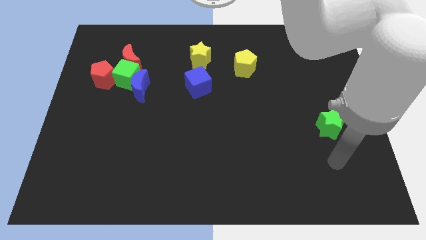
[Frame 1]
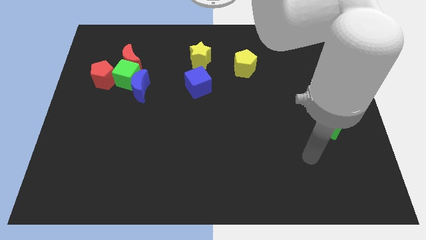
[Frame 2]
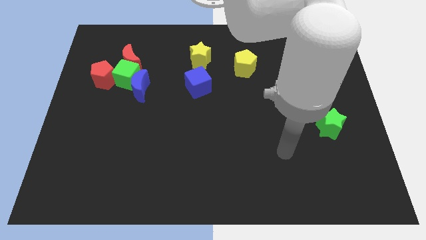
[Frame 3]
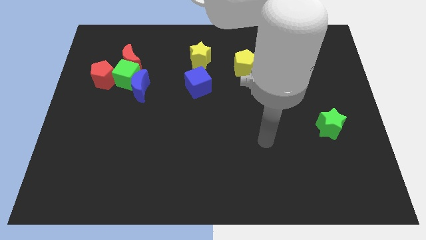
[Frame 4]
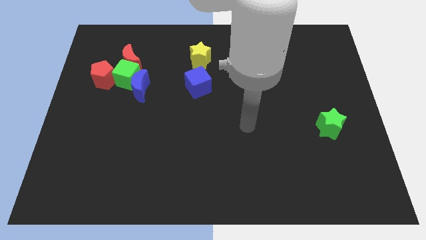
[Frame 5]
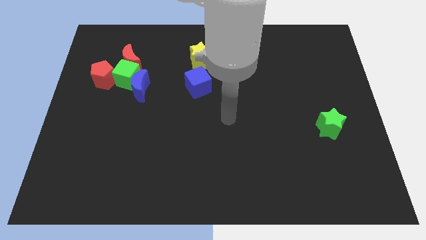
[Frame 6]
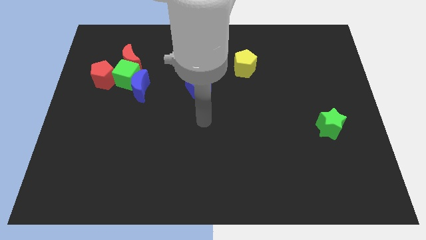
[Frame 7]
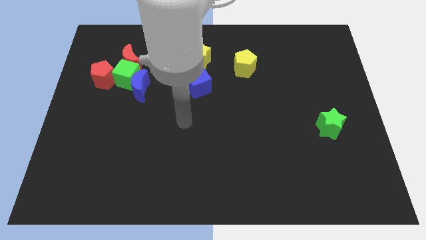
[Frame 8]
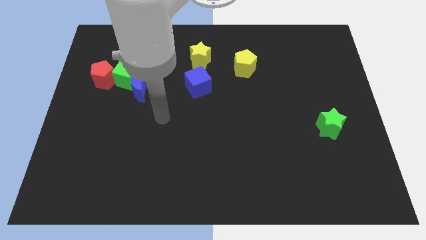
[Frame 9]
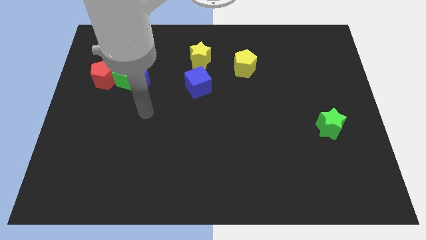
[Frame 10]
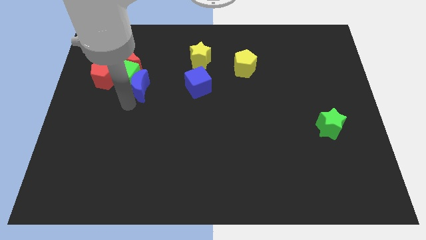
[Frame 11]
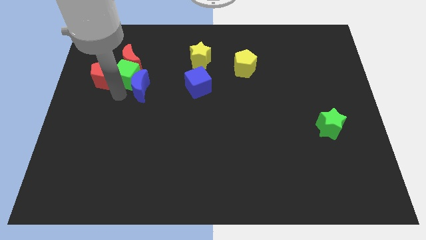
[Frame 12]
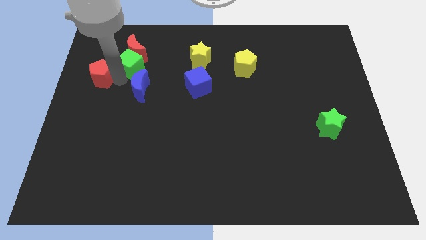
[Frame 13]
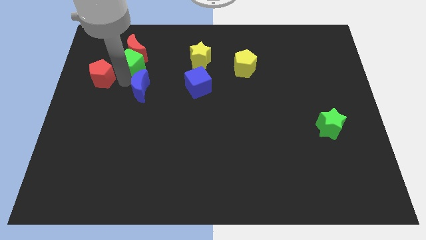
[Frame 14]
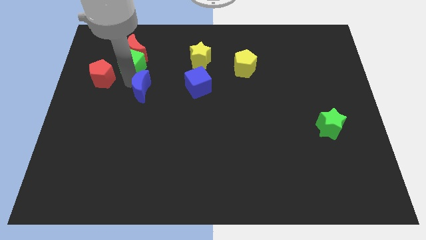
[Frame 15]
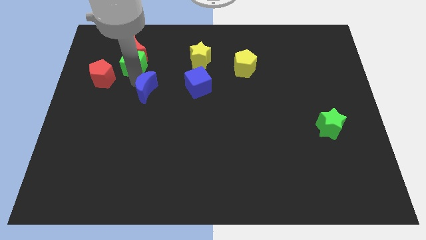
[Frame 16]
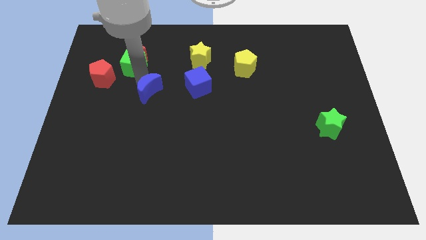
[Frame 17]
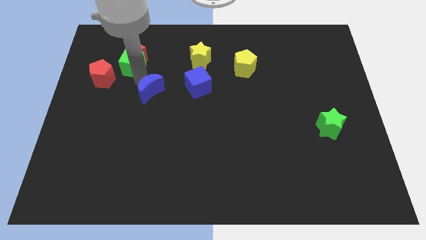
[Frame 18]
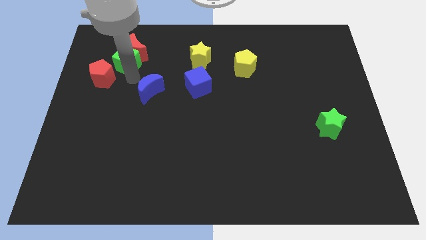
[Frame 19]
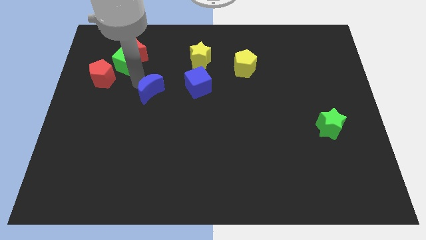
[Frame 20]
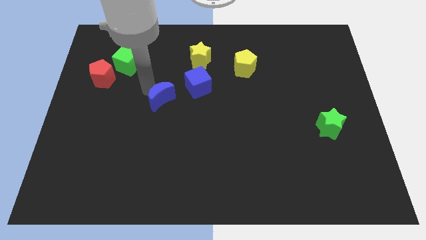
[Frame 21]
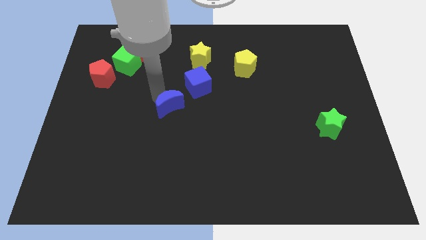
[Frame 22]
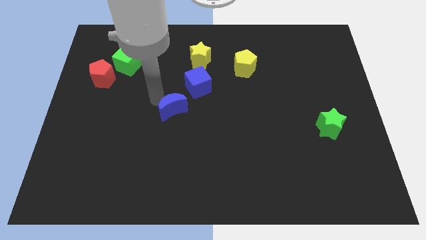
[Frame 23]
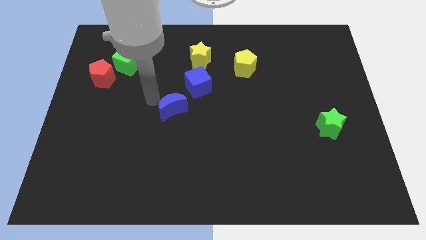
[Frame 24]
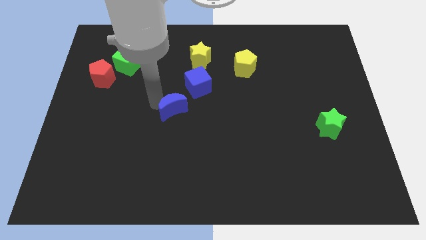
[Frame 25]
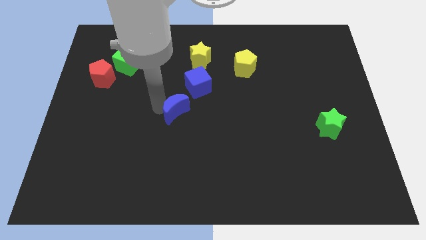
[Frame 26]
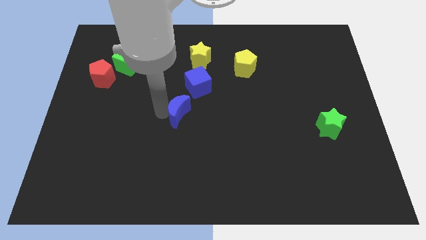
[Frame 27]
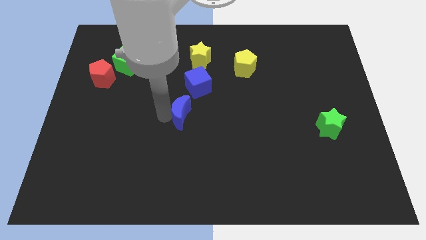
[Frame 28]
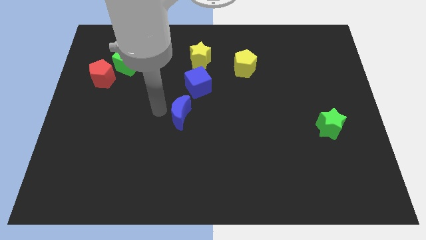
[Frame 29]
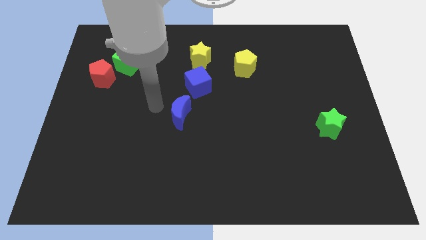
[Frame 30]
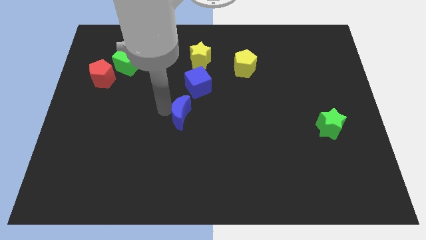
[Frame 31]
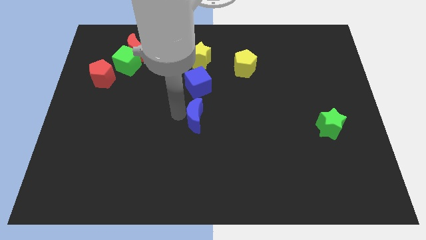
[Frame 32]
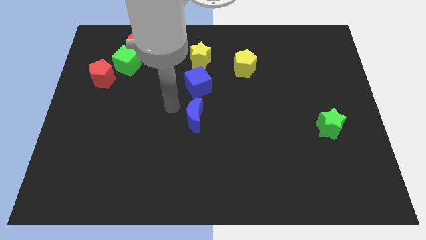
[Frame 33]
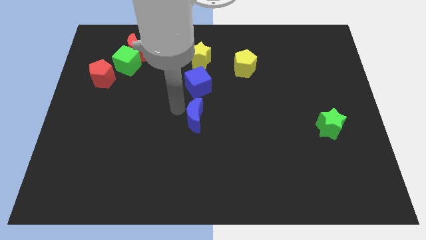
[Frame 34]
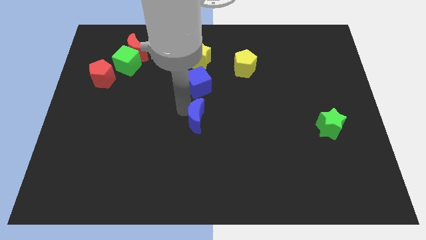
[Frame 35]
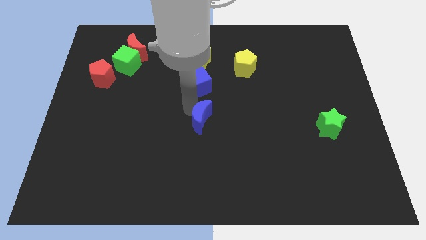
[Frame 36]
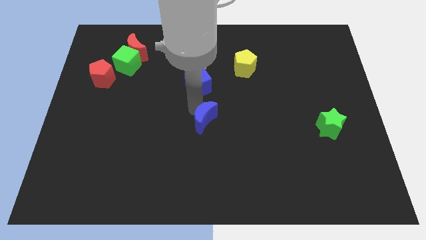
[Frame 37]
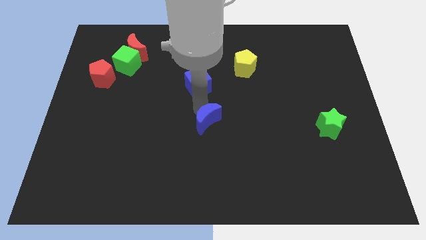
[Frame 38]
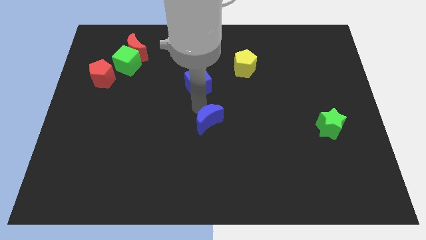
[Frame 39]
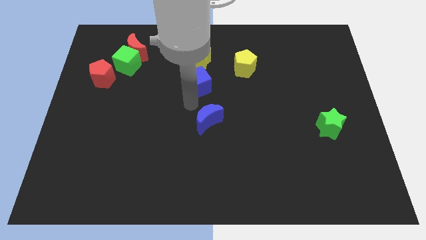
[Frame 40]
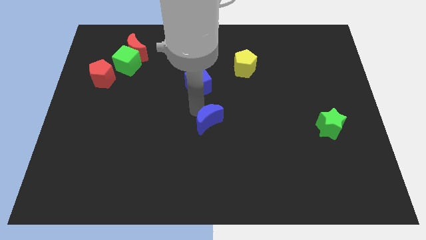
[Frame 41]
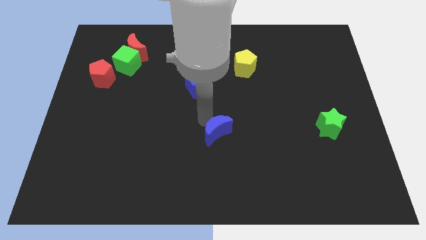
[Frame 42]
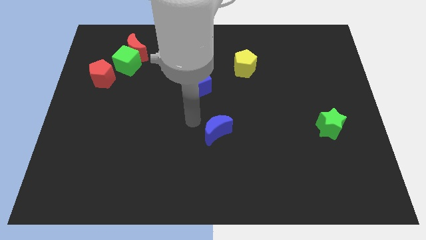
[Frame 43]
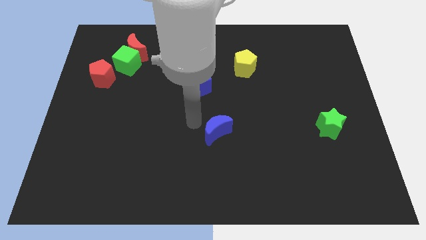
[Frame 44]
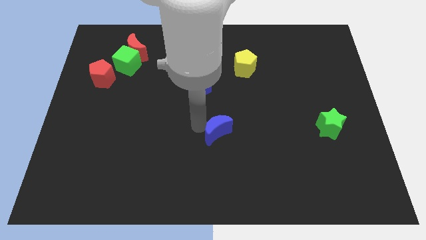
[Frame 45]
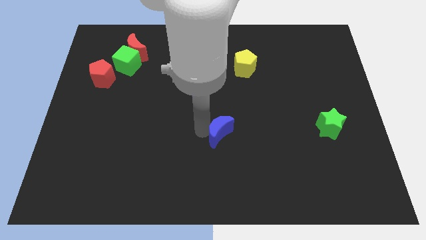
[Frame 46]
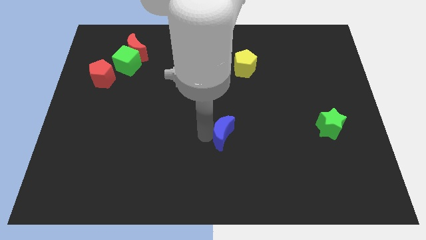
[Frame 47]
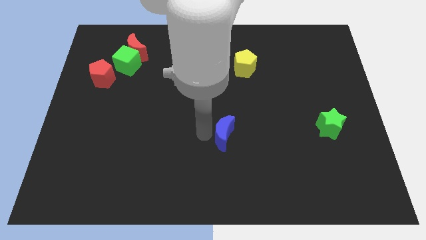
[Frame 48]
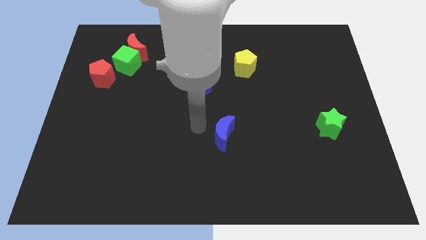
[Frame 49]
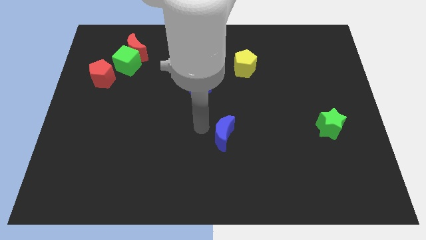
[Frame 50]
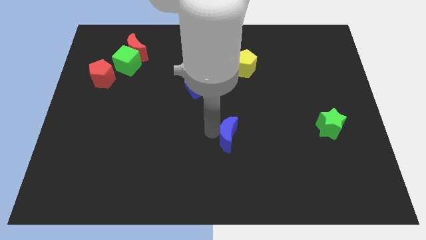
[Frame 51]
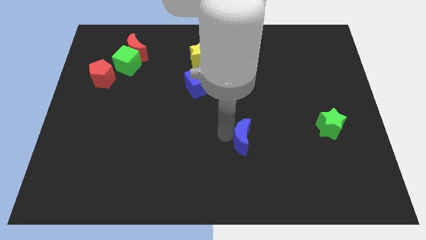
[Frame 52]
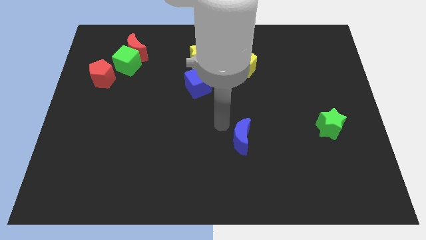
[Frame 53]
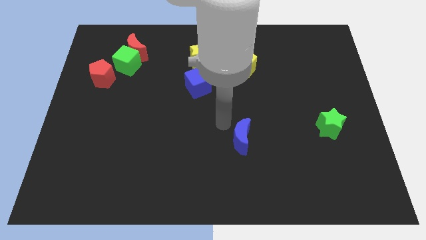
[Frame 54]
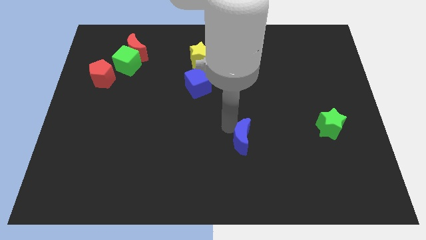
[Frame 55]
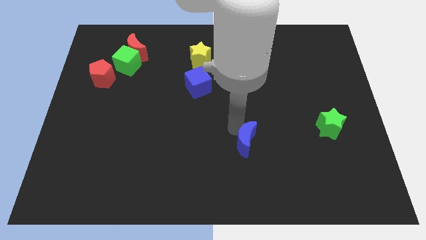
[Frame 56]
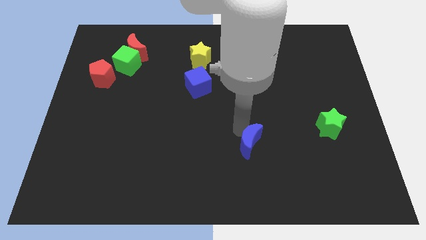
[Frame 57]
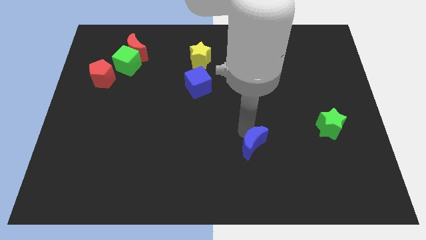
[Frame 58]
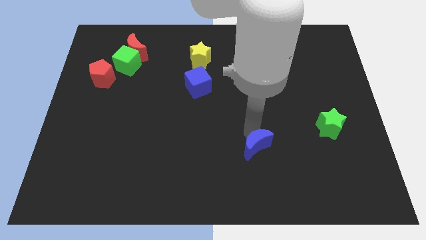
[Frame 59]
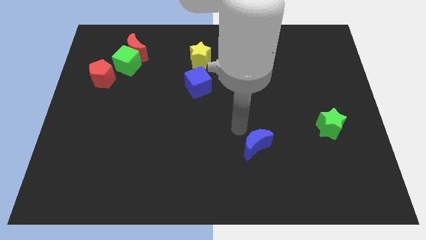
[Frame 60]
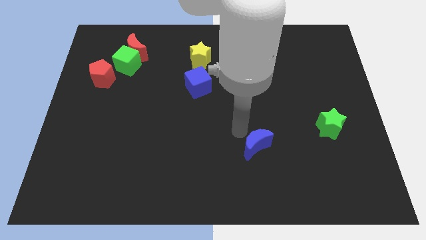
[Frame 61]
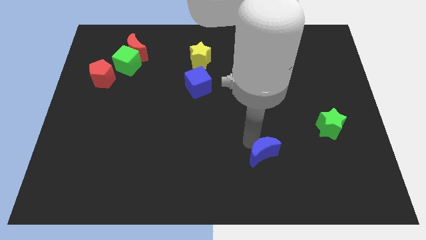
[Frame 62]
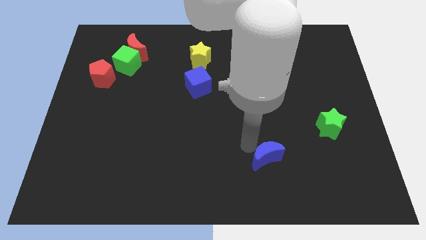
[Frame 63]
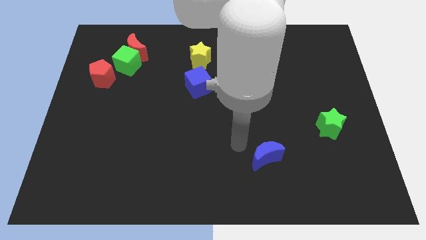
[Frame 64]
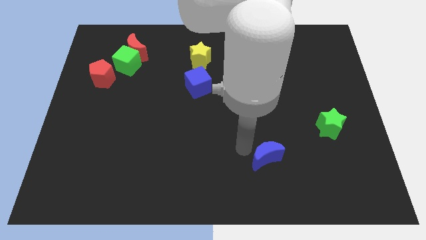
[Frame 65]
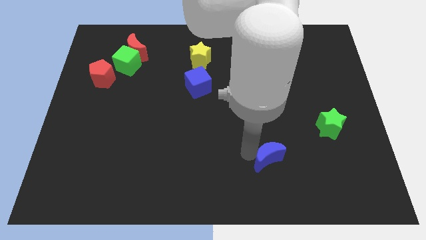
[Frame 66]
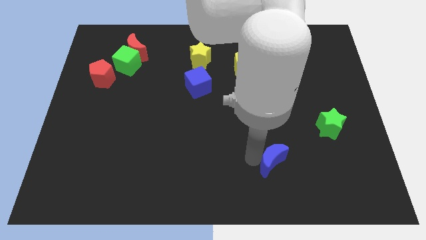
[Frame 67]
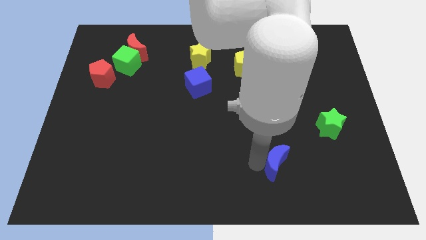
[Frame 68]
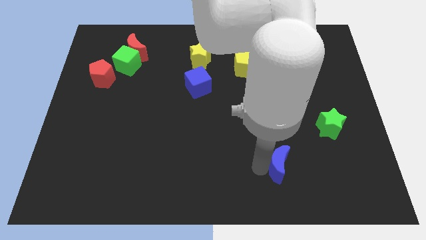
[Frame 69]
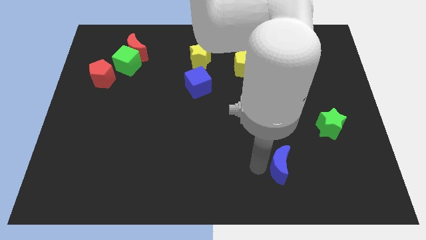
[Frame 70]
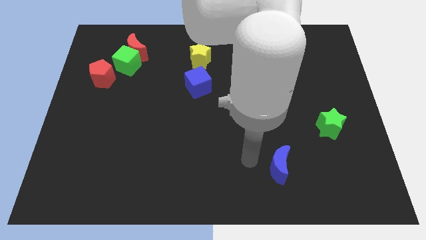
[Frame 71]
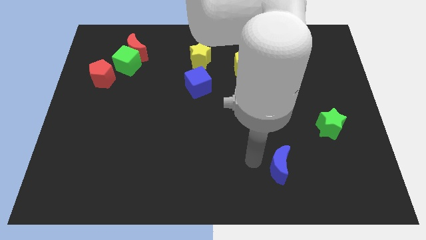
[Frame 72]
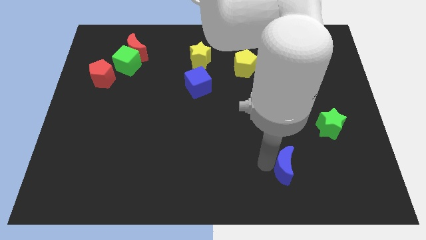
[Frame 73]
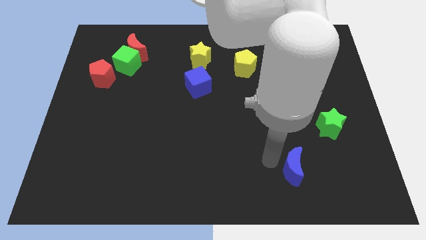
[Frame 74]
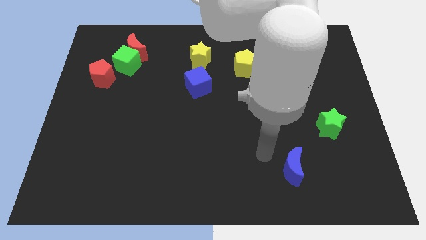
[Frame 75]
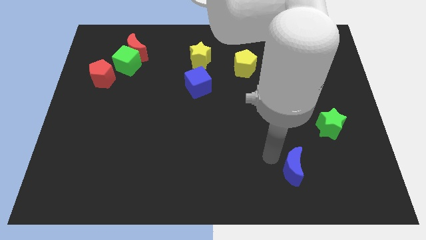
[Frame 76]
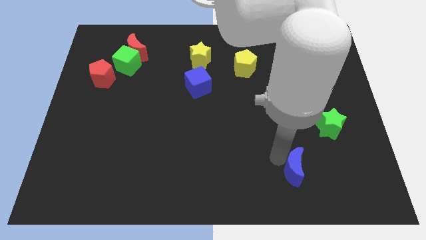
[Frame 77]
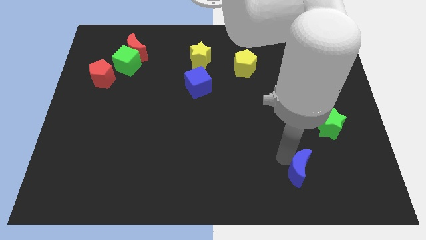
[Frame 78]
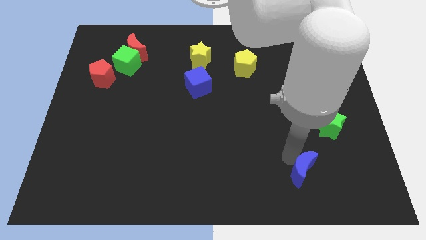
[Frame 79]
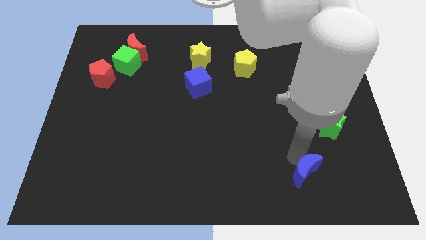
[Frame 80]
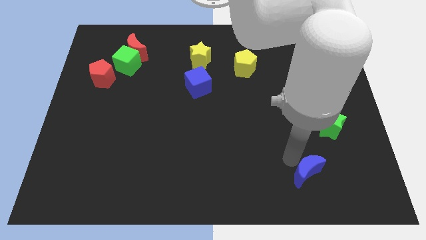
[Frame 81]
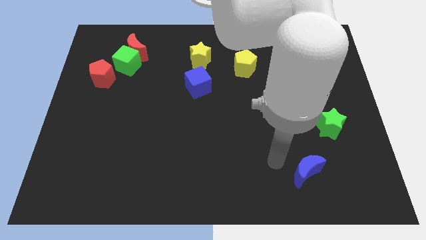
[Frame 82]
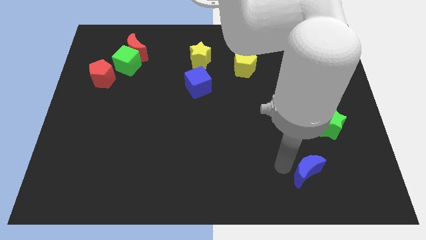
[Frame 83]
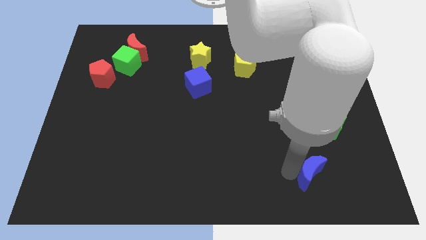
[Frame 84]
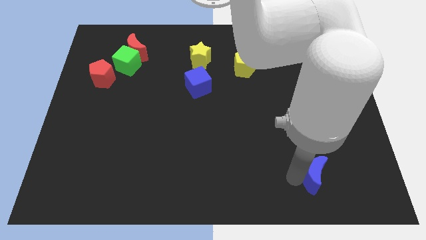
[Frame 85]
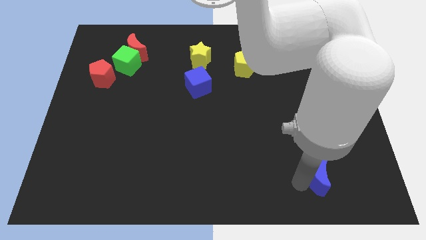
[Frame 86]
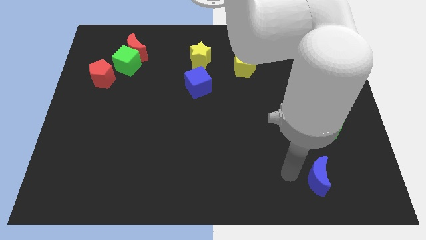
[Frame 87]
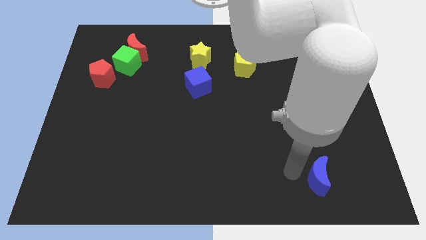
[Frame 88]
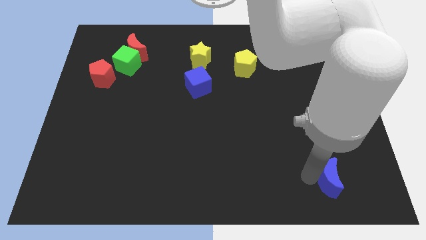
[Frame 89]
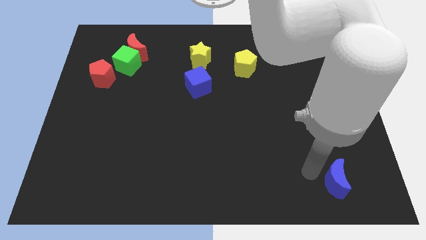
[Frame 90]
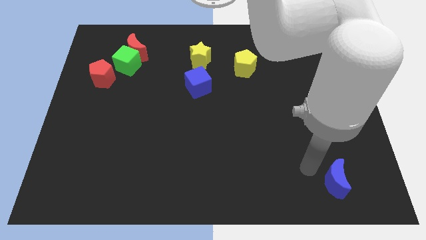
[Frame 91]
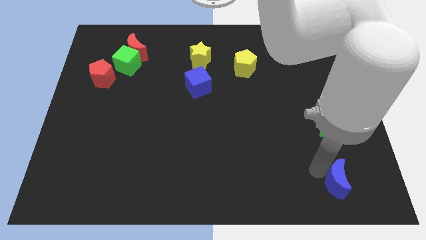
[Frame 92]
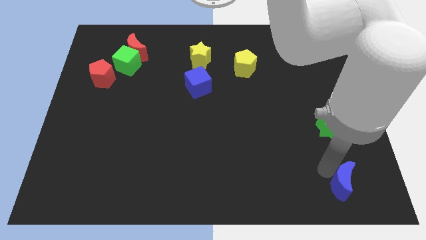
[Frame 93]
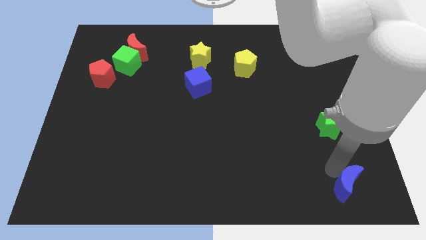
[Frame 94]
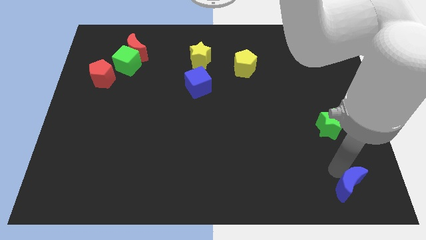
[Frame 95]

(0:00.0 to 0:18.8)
push the blue moon to the bottom right of the board
